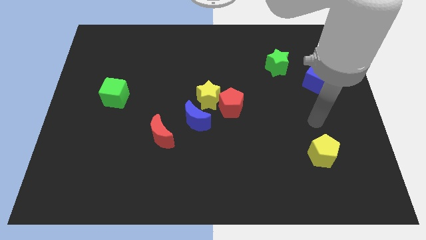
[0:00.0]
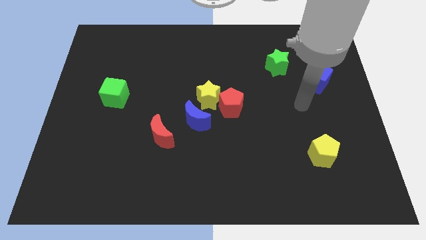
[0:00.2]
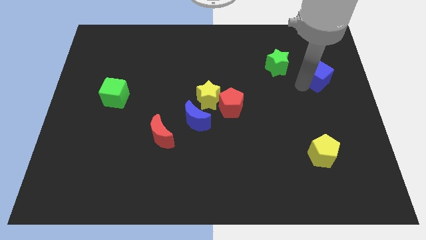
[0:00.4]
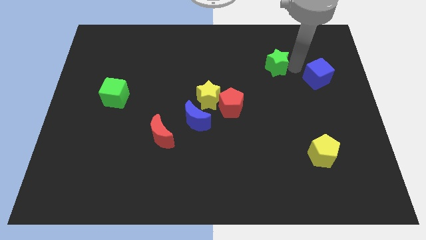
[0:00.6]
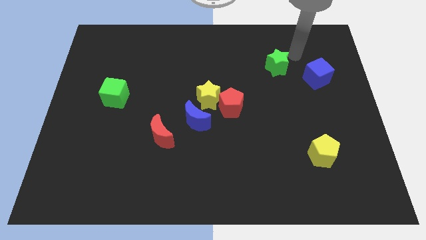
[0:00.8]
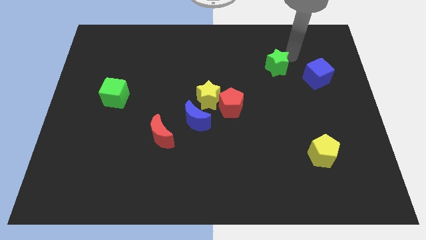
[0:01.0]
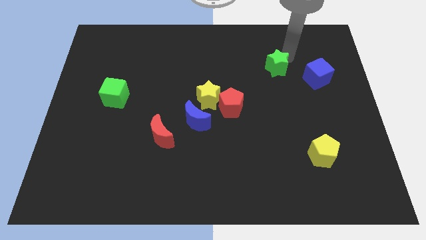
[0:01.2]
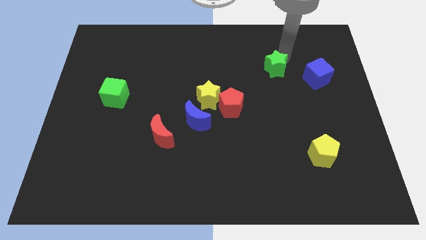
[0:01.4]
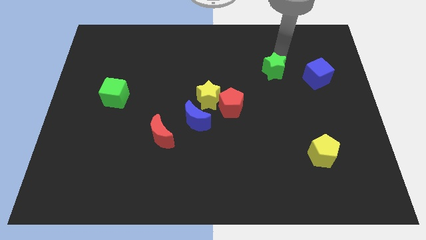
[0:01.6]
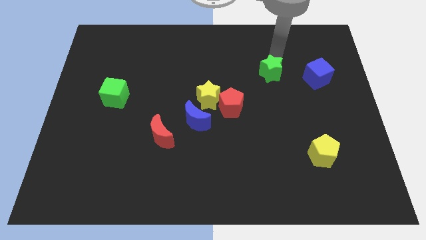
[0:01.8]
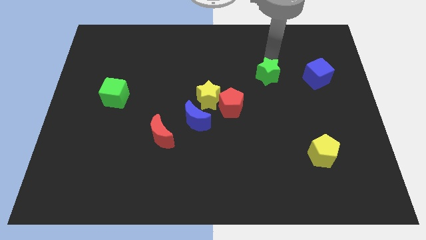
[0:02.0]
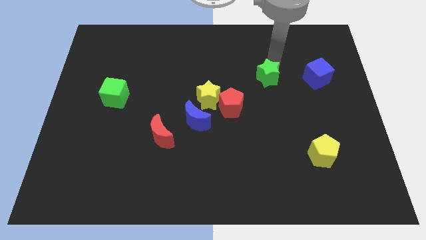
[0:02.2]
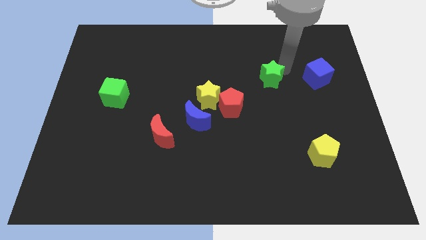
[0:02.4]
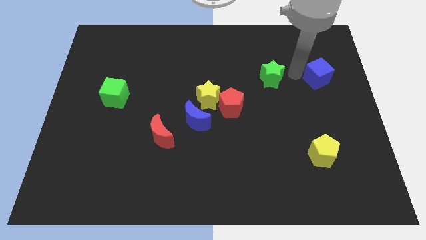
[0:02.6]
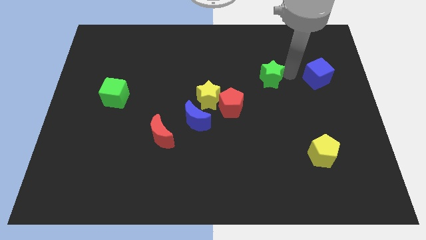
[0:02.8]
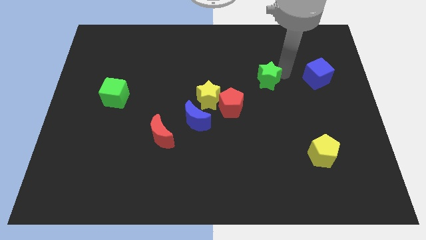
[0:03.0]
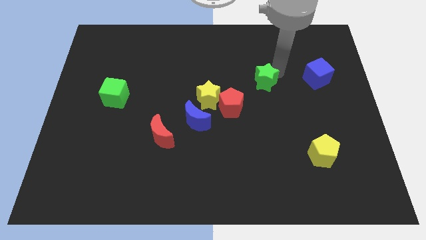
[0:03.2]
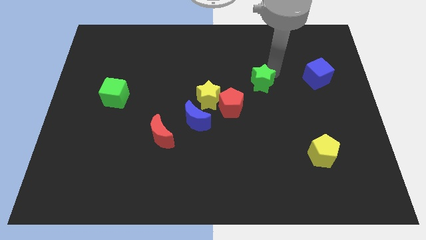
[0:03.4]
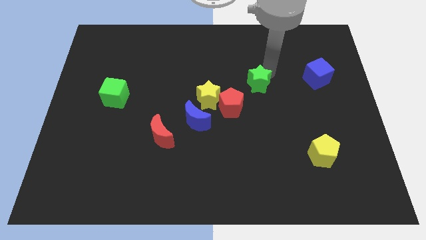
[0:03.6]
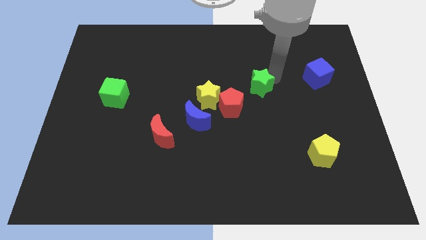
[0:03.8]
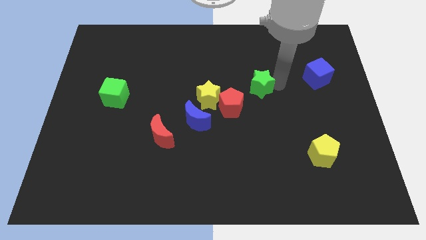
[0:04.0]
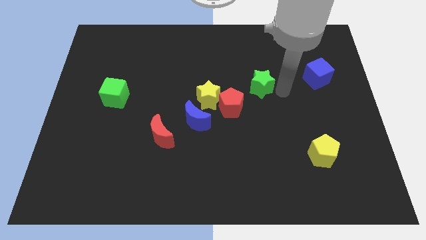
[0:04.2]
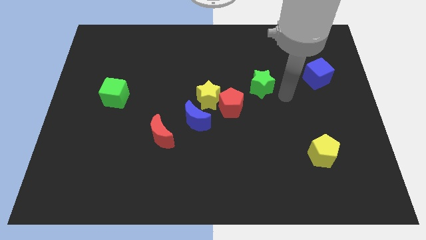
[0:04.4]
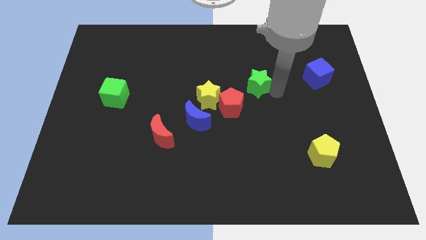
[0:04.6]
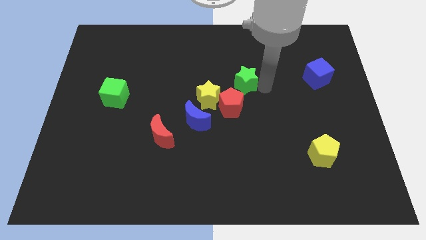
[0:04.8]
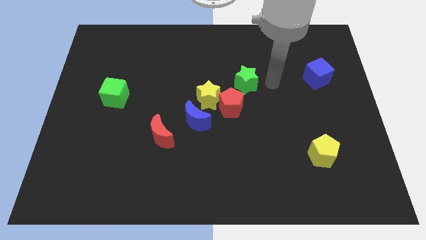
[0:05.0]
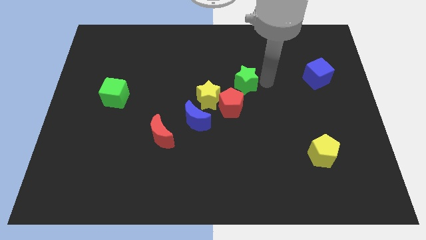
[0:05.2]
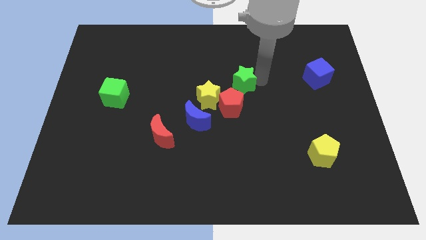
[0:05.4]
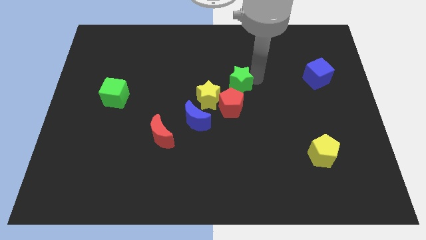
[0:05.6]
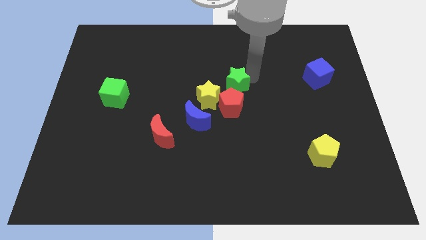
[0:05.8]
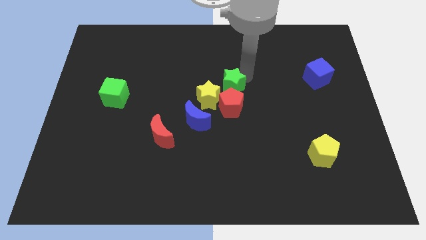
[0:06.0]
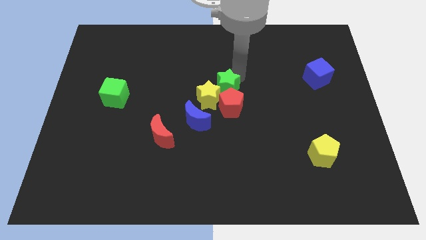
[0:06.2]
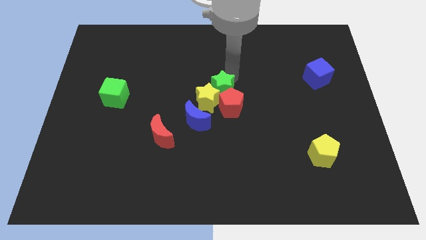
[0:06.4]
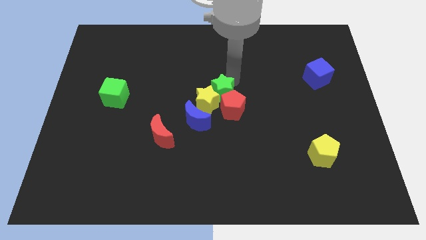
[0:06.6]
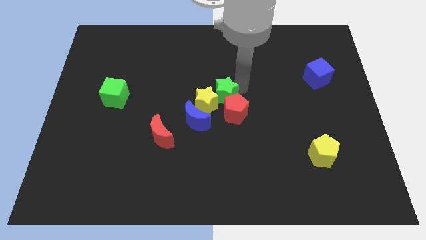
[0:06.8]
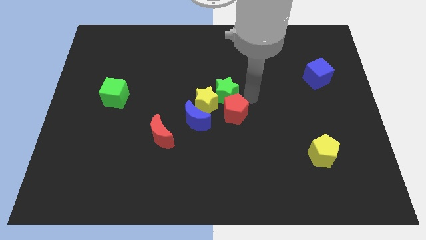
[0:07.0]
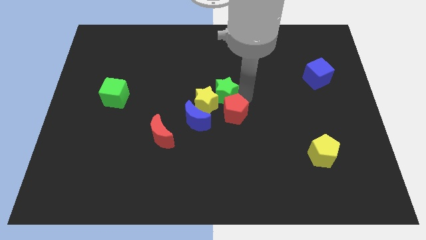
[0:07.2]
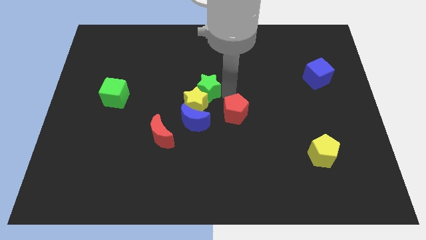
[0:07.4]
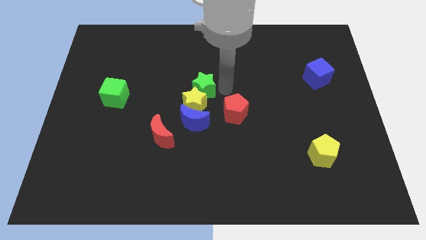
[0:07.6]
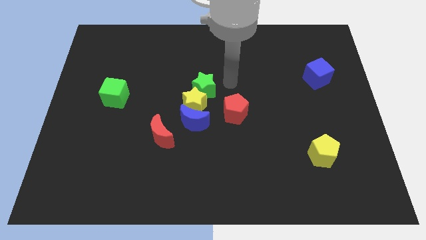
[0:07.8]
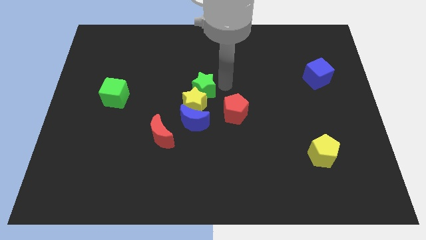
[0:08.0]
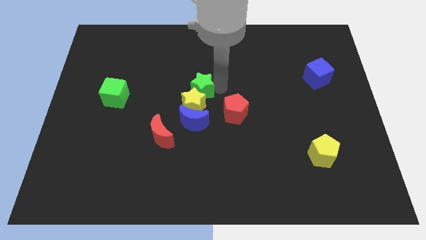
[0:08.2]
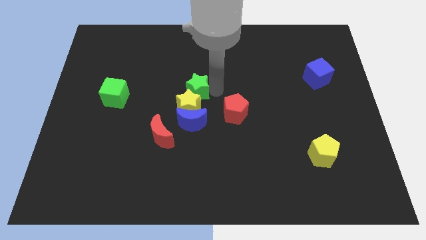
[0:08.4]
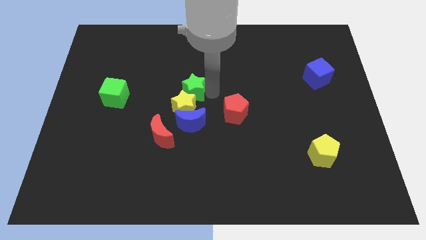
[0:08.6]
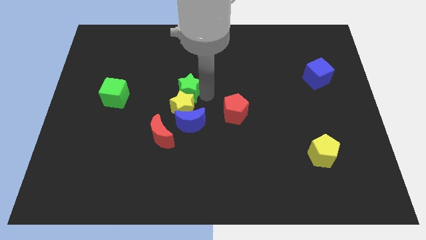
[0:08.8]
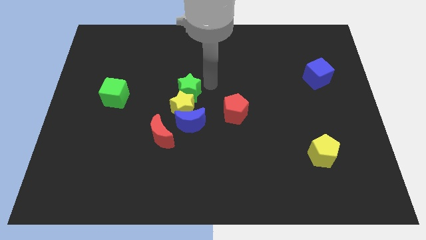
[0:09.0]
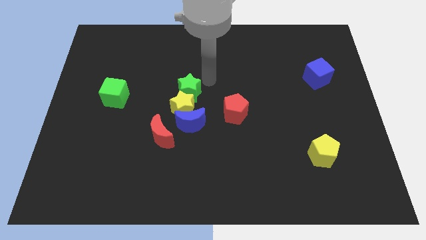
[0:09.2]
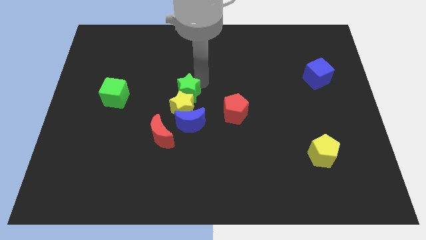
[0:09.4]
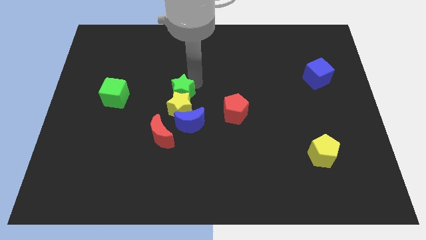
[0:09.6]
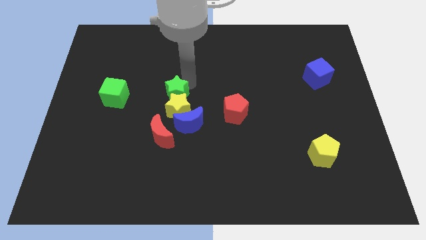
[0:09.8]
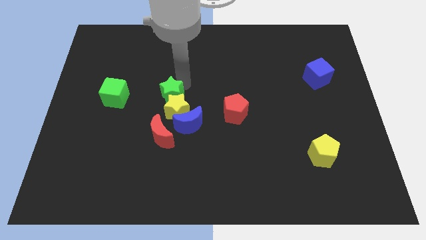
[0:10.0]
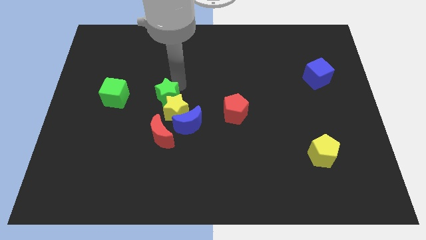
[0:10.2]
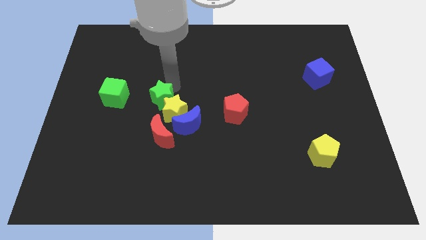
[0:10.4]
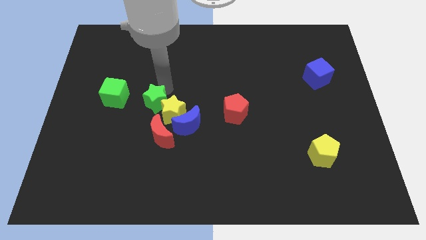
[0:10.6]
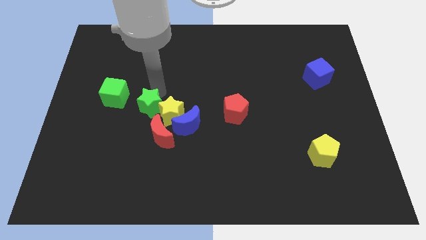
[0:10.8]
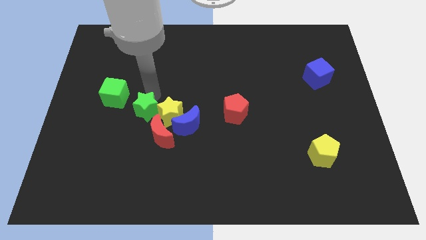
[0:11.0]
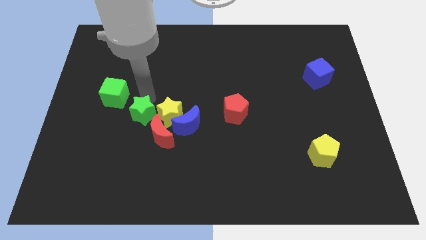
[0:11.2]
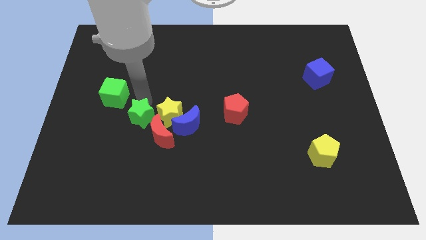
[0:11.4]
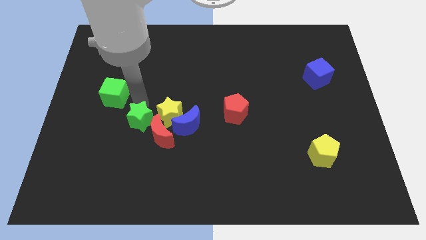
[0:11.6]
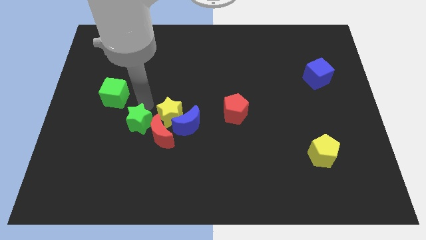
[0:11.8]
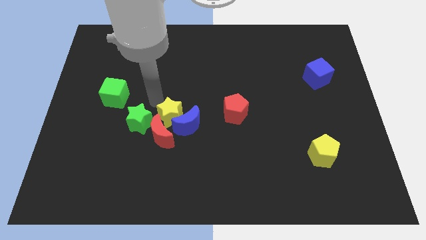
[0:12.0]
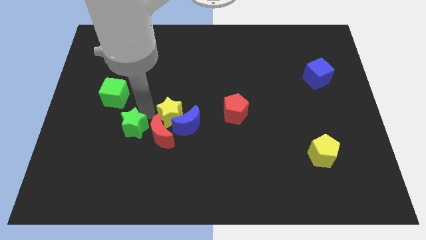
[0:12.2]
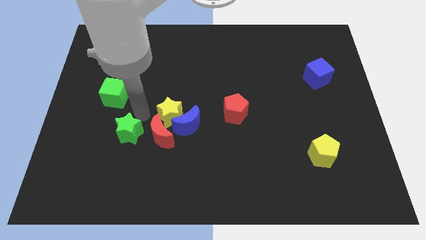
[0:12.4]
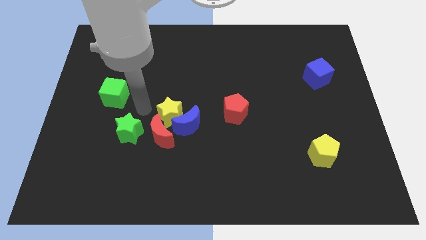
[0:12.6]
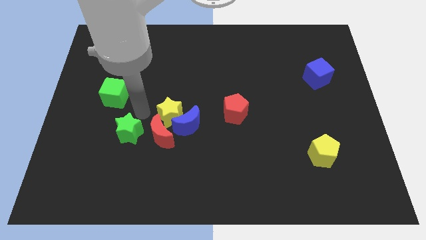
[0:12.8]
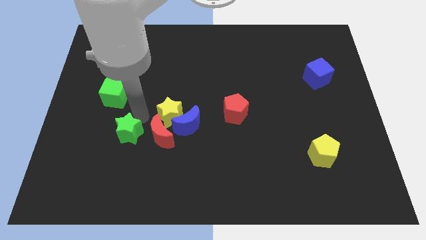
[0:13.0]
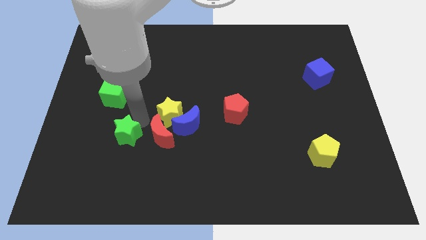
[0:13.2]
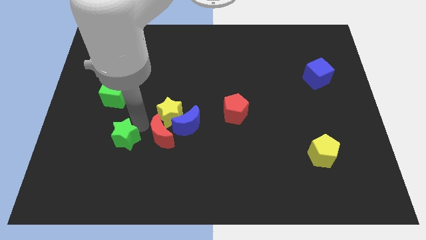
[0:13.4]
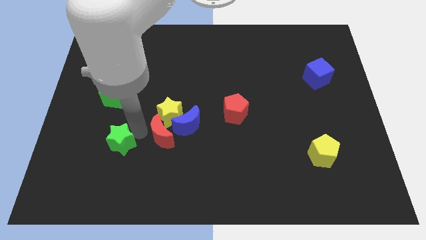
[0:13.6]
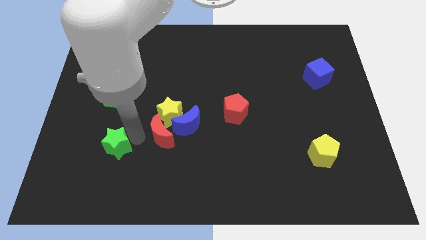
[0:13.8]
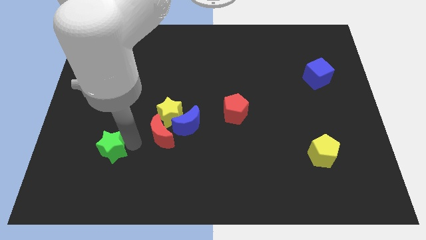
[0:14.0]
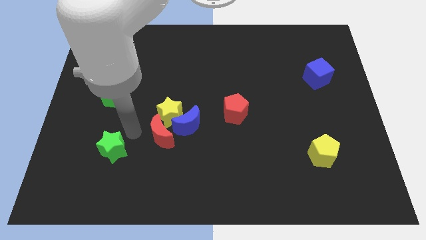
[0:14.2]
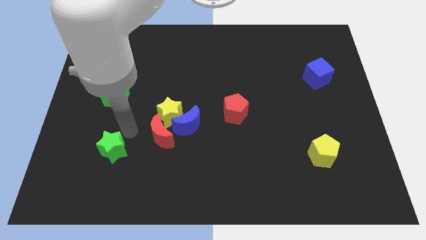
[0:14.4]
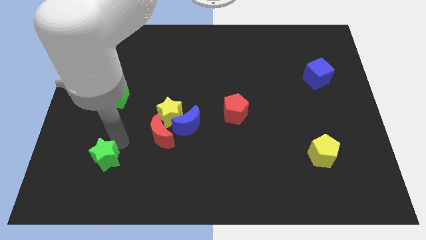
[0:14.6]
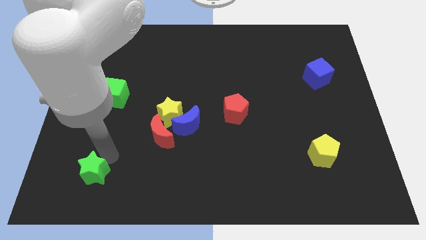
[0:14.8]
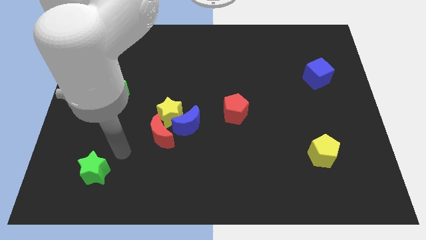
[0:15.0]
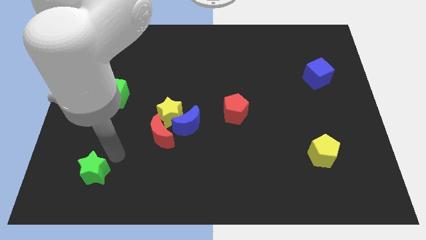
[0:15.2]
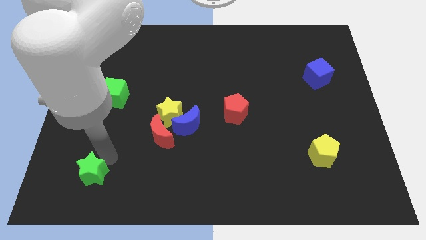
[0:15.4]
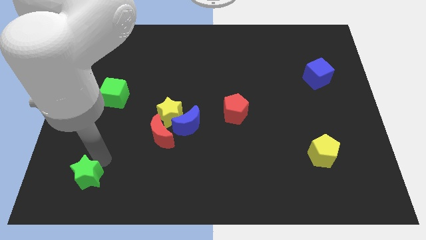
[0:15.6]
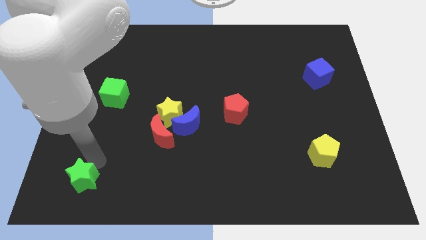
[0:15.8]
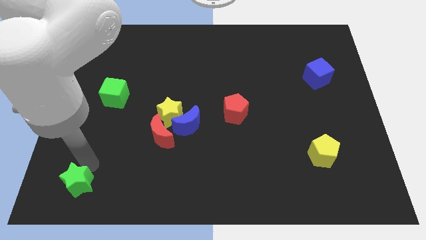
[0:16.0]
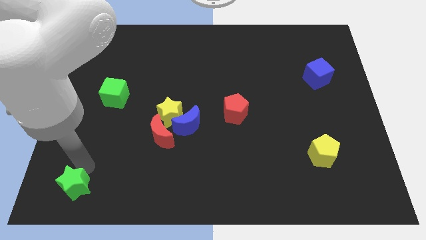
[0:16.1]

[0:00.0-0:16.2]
slide the green star to the lower left corner
